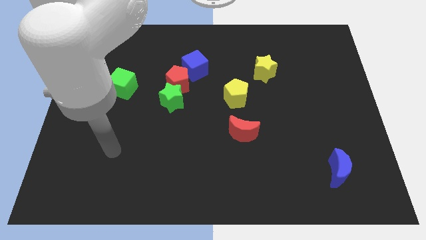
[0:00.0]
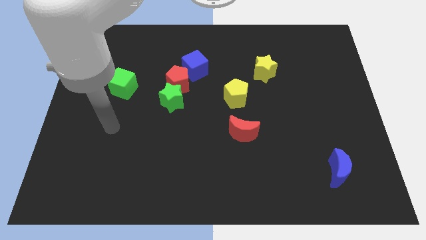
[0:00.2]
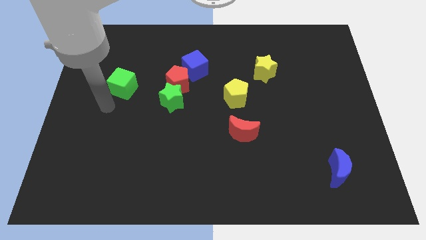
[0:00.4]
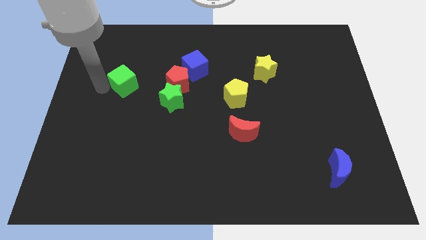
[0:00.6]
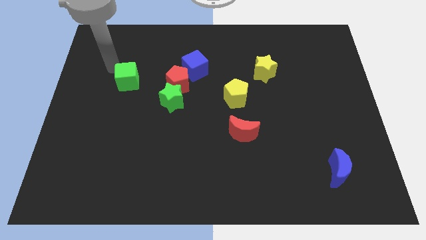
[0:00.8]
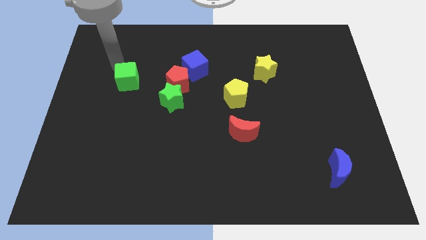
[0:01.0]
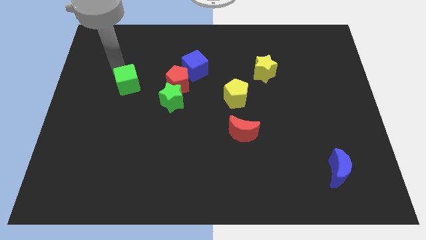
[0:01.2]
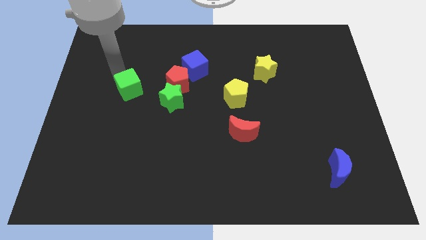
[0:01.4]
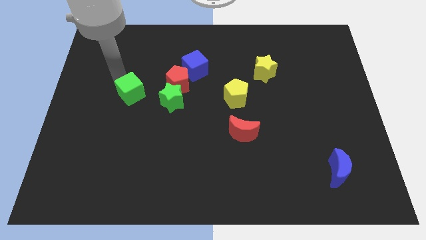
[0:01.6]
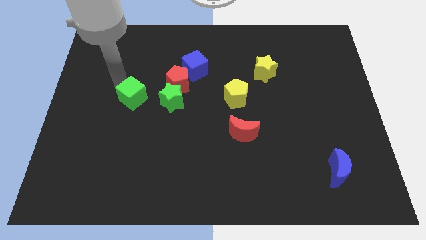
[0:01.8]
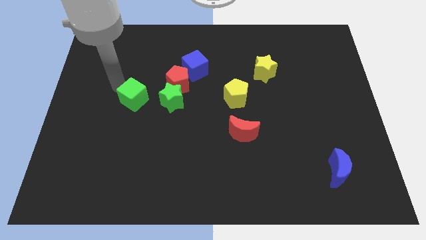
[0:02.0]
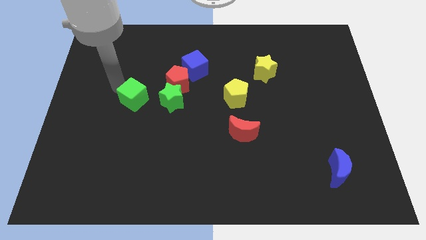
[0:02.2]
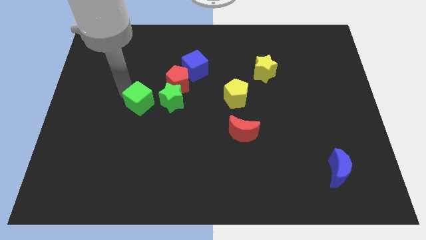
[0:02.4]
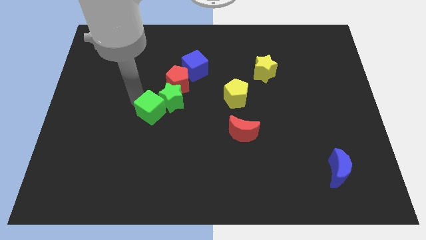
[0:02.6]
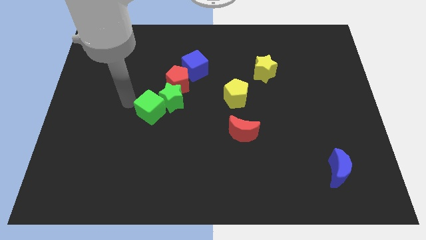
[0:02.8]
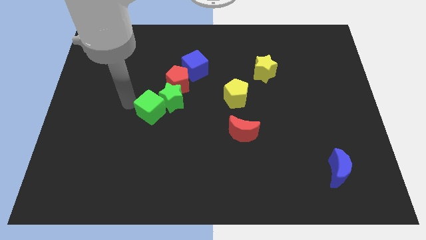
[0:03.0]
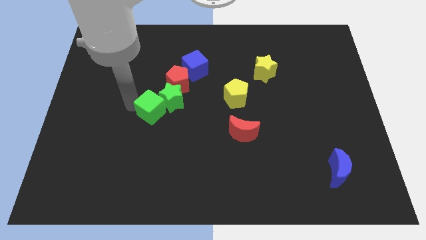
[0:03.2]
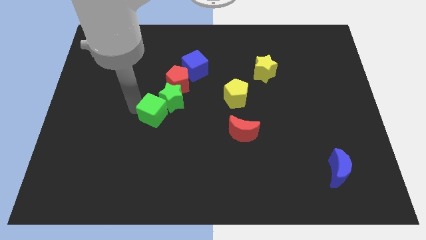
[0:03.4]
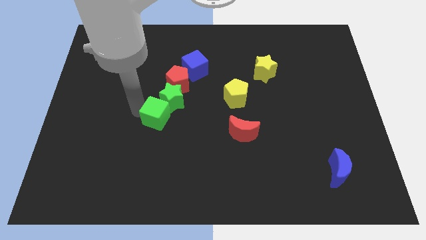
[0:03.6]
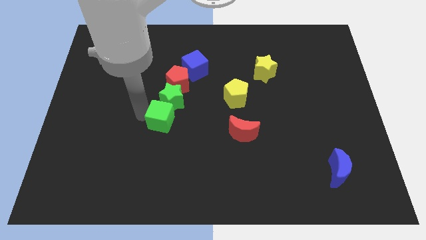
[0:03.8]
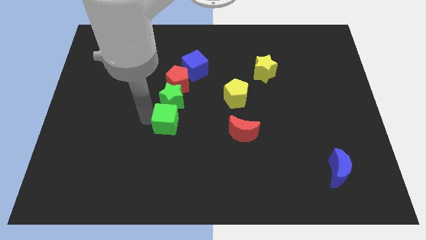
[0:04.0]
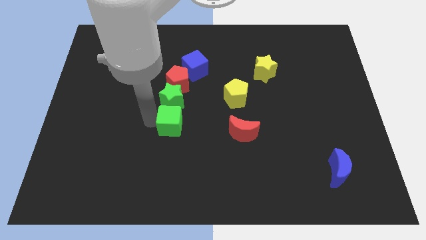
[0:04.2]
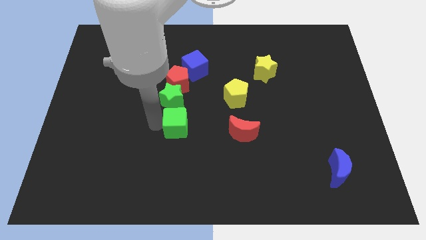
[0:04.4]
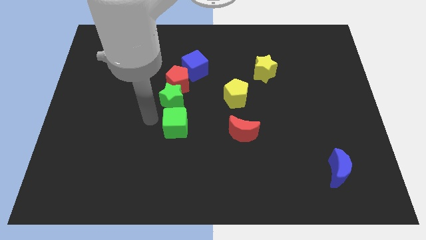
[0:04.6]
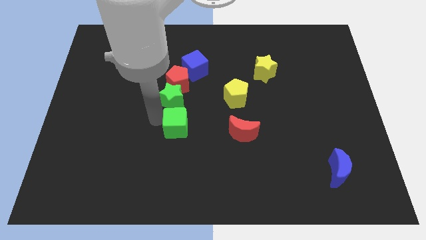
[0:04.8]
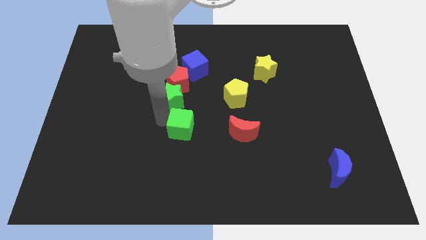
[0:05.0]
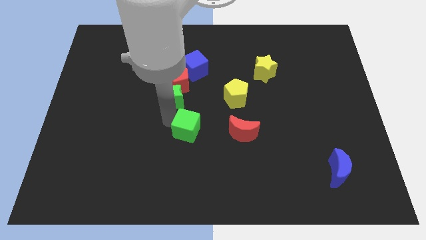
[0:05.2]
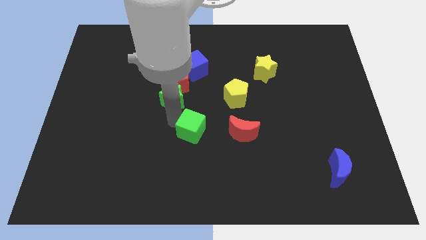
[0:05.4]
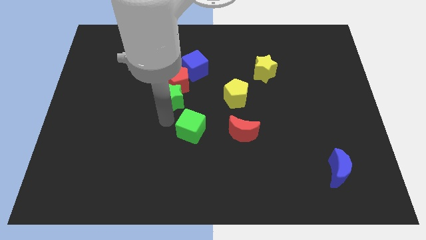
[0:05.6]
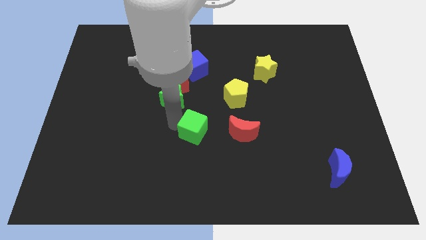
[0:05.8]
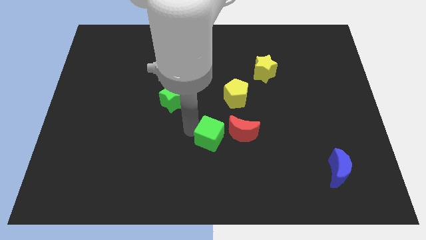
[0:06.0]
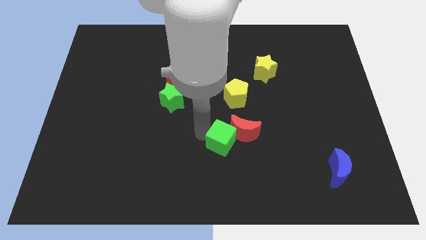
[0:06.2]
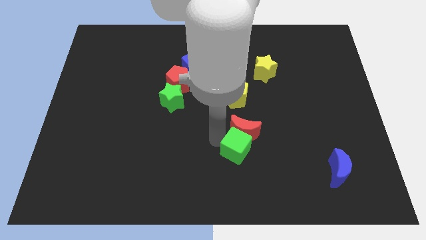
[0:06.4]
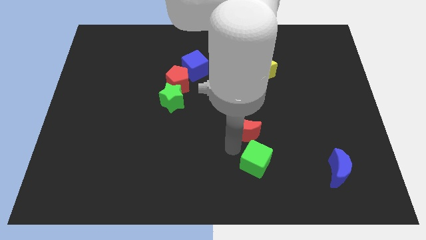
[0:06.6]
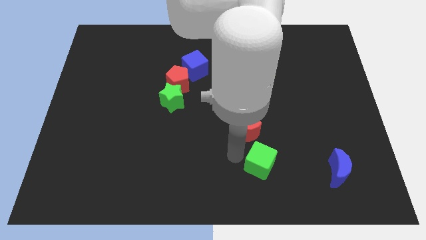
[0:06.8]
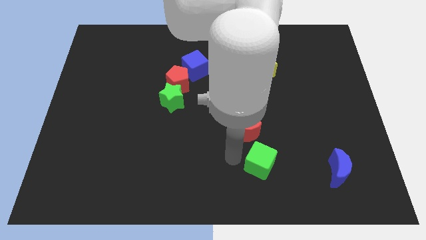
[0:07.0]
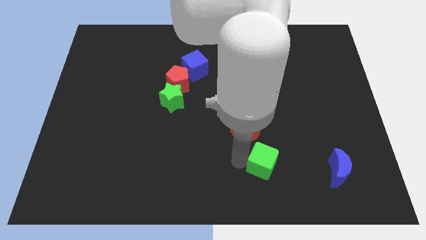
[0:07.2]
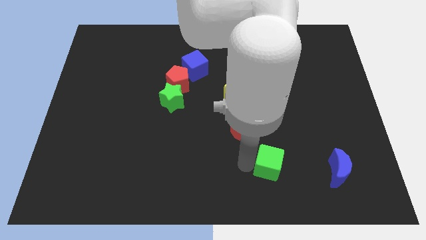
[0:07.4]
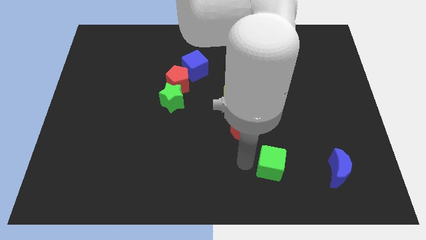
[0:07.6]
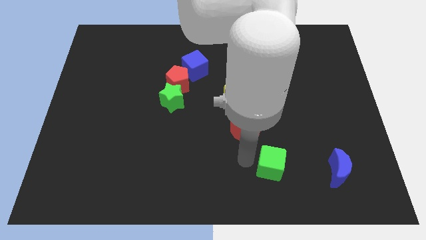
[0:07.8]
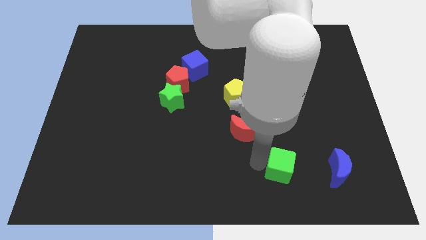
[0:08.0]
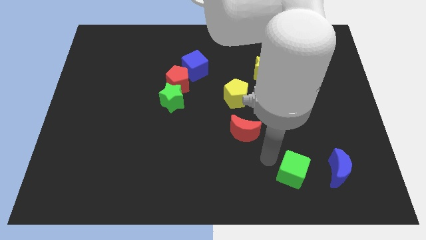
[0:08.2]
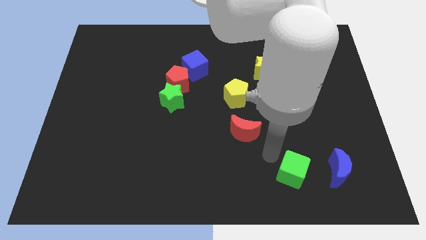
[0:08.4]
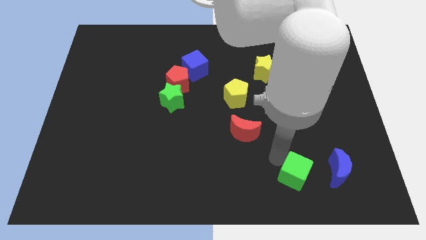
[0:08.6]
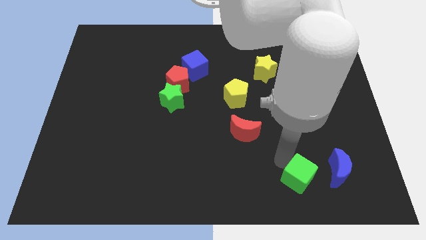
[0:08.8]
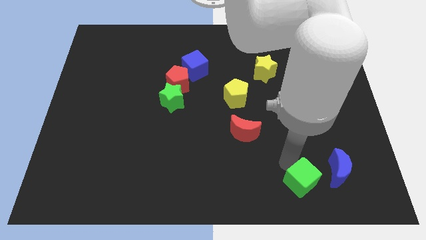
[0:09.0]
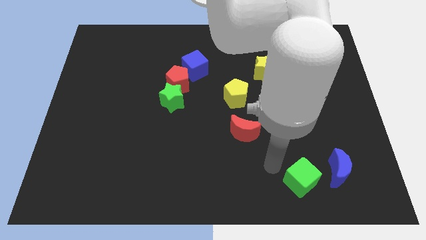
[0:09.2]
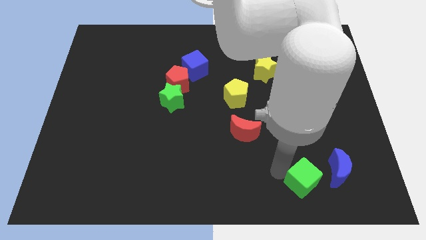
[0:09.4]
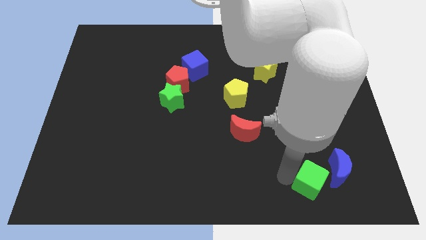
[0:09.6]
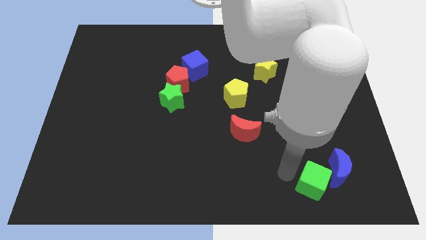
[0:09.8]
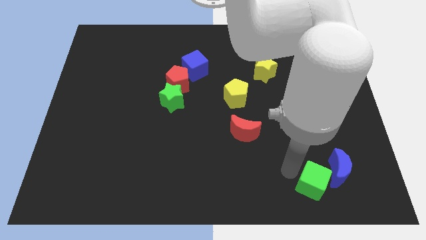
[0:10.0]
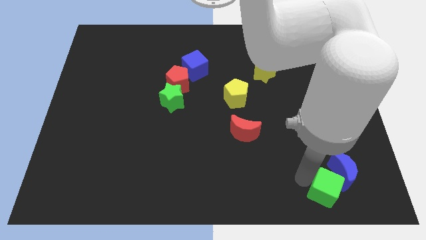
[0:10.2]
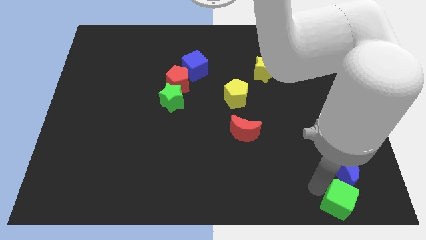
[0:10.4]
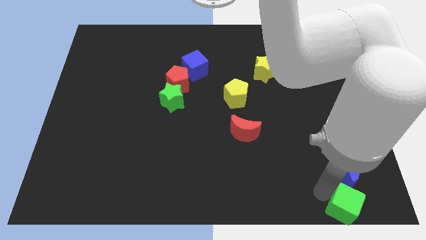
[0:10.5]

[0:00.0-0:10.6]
slide the green cube to the bottom right of the board

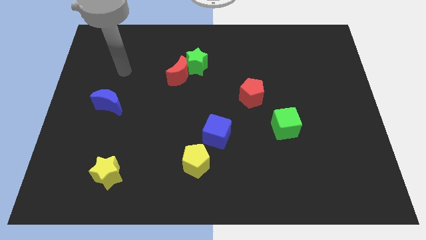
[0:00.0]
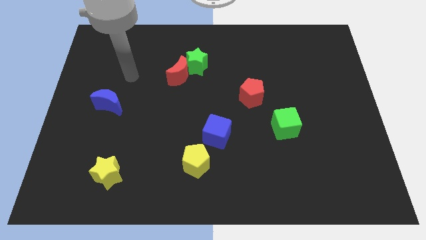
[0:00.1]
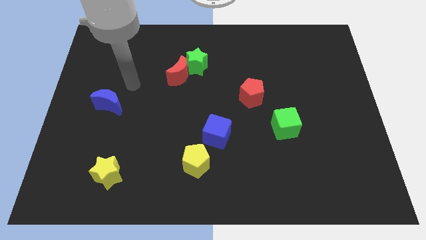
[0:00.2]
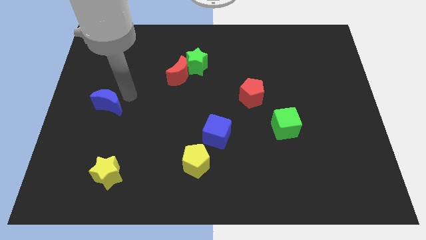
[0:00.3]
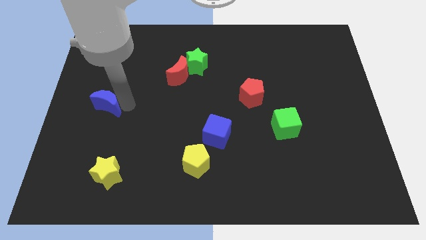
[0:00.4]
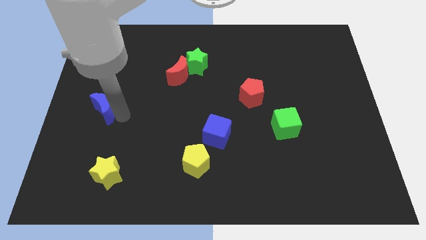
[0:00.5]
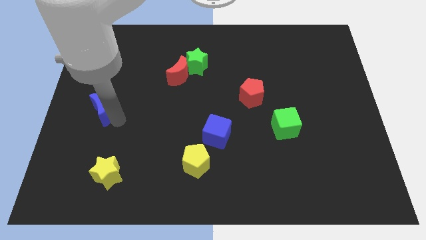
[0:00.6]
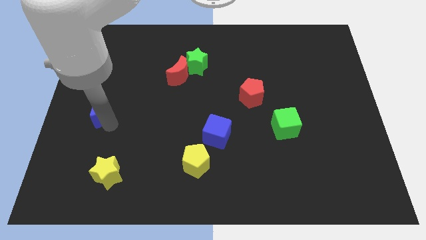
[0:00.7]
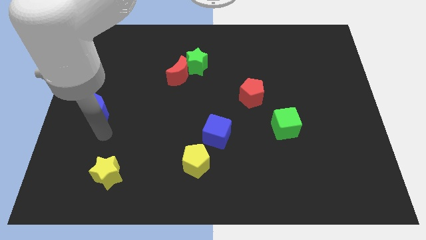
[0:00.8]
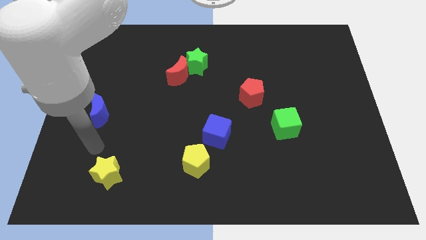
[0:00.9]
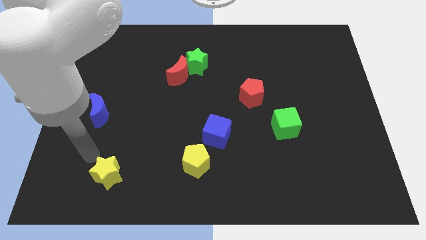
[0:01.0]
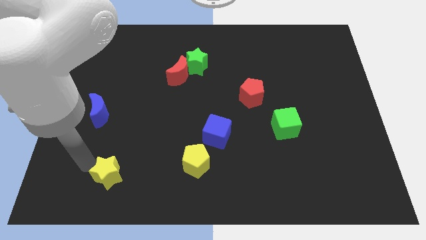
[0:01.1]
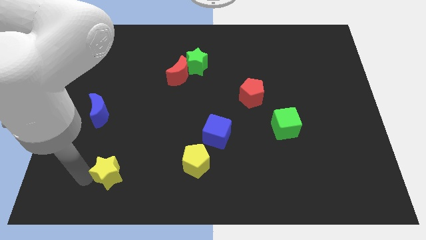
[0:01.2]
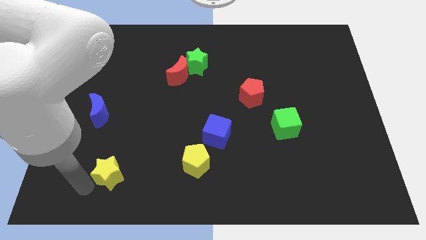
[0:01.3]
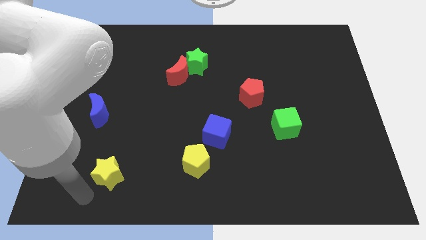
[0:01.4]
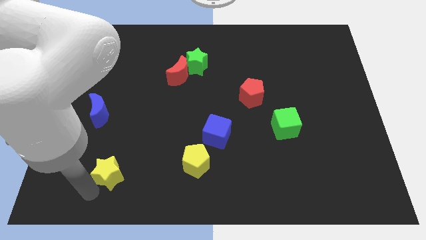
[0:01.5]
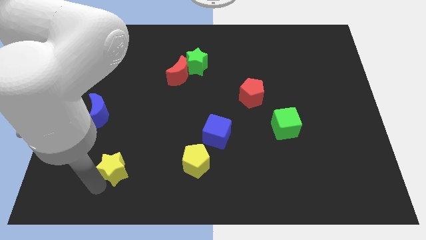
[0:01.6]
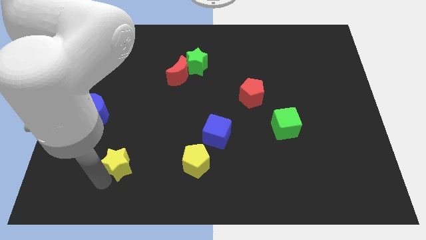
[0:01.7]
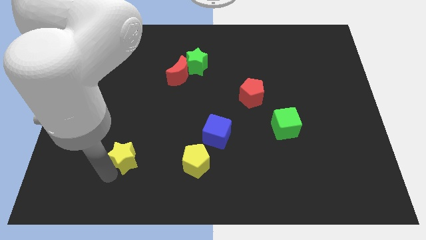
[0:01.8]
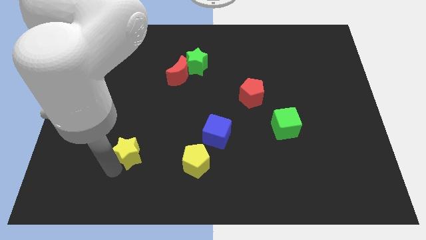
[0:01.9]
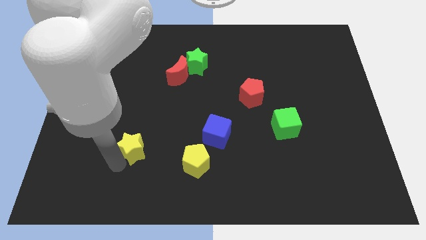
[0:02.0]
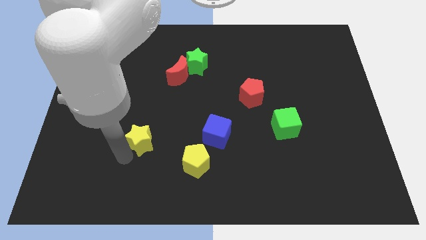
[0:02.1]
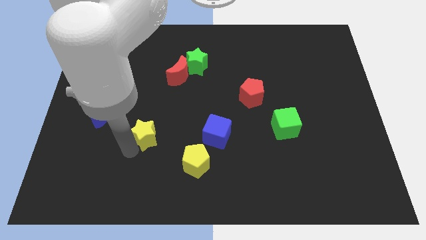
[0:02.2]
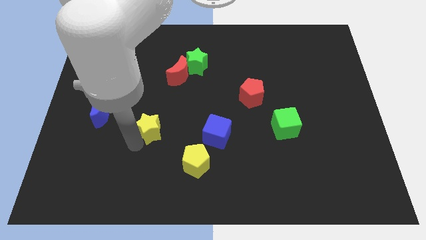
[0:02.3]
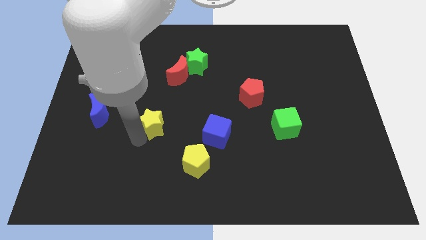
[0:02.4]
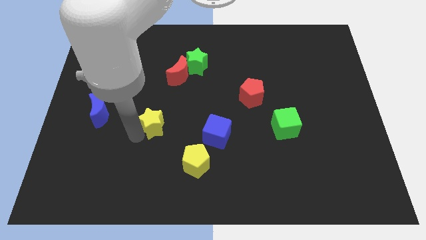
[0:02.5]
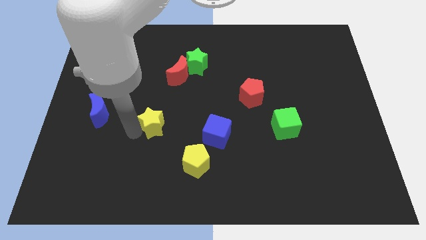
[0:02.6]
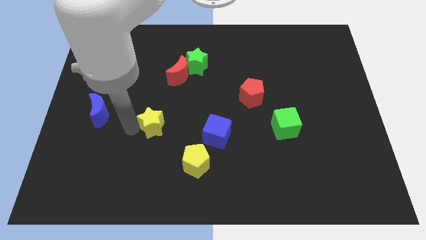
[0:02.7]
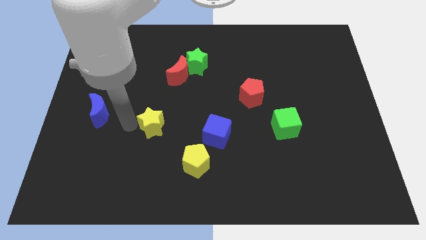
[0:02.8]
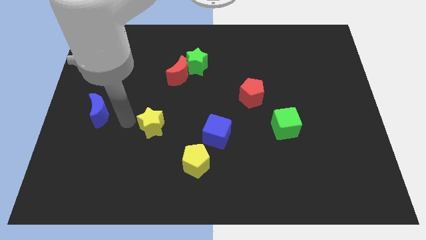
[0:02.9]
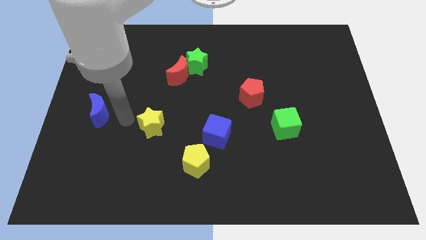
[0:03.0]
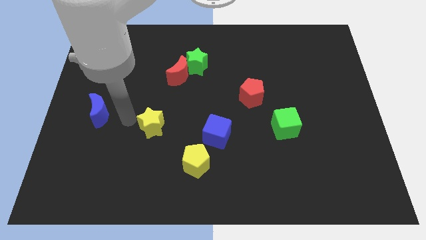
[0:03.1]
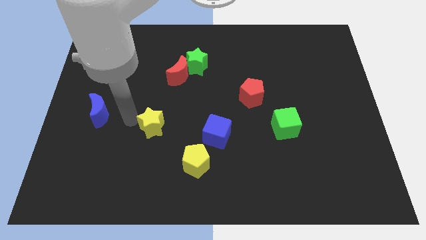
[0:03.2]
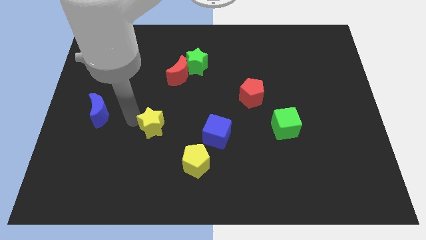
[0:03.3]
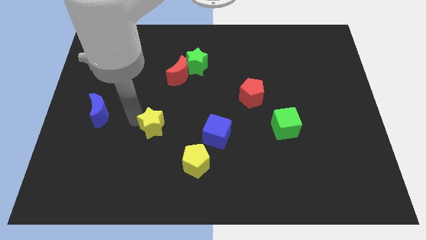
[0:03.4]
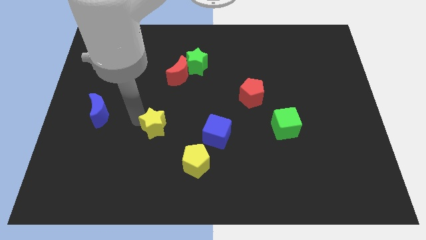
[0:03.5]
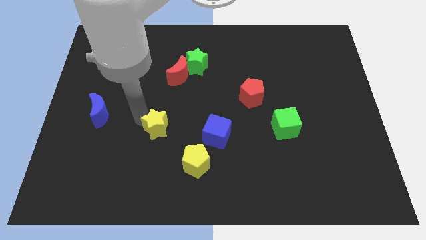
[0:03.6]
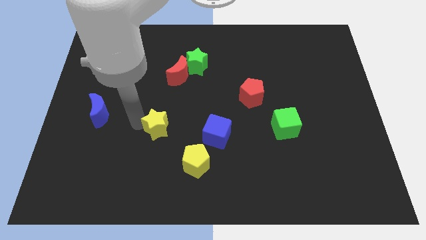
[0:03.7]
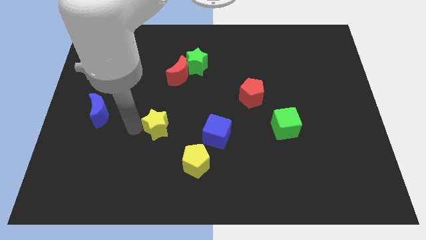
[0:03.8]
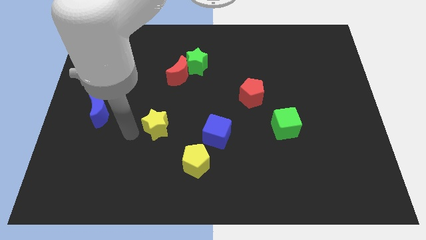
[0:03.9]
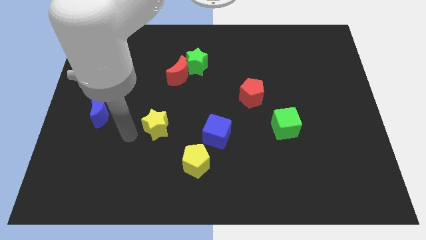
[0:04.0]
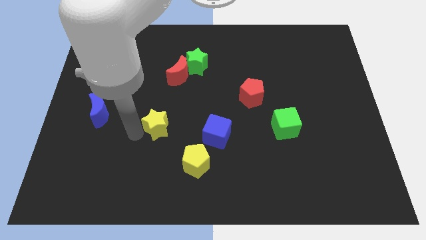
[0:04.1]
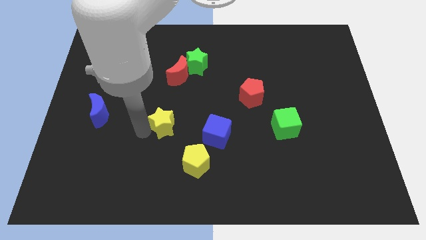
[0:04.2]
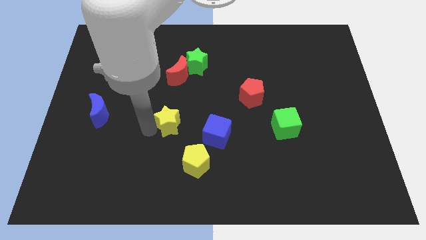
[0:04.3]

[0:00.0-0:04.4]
slide the yellow star to the center of the board
